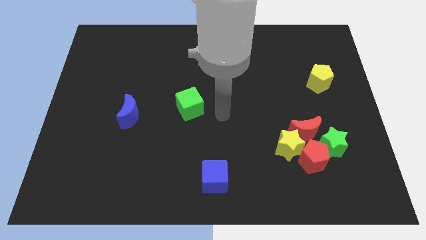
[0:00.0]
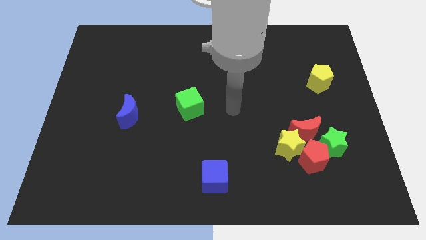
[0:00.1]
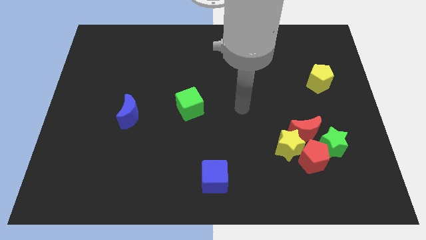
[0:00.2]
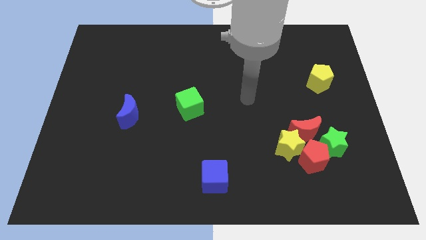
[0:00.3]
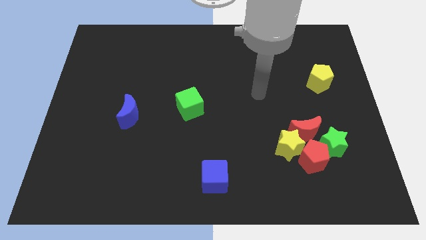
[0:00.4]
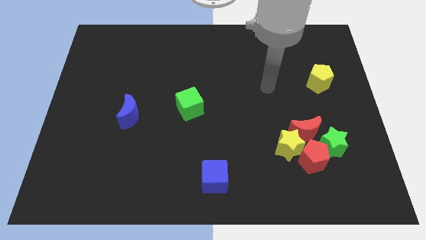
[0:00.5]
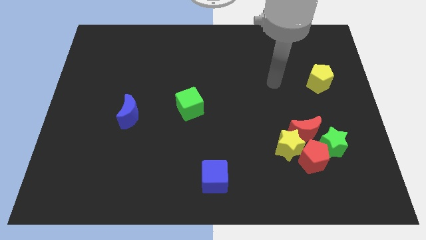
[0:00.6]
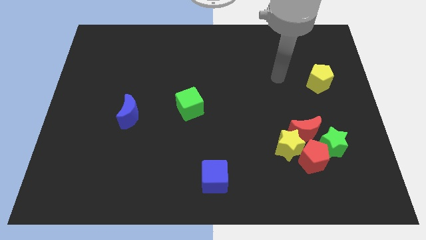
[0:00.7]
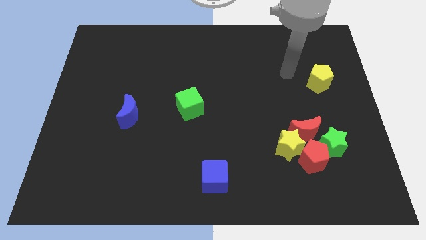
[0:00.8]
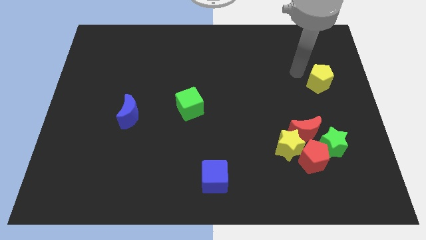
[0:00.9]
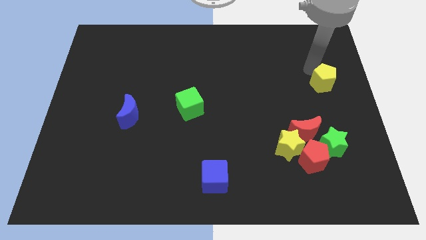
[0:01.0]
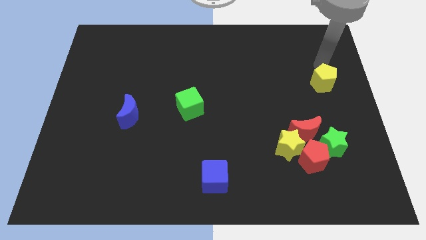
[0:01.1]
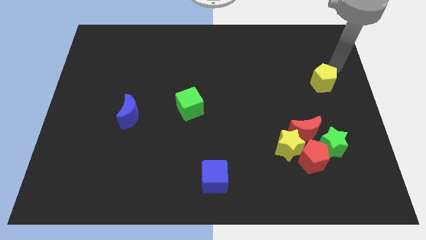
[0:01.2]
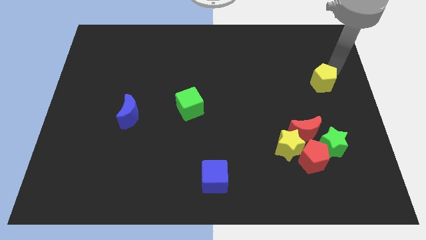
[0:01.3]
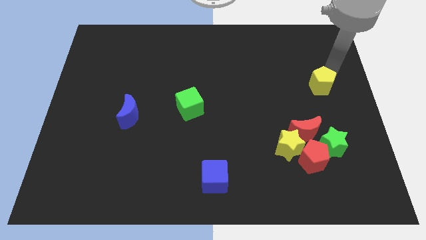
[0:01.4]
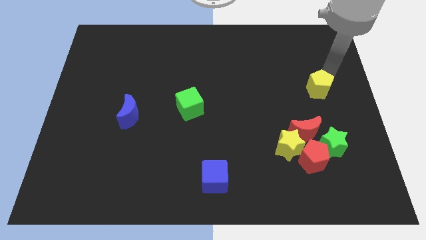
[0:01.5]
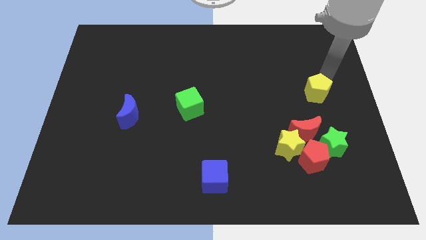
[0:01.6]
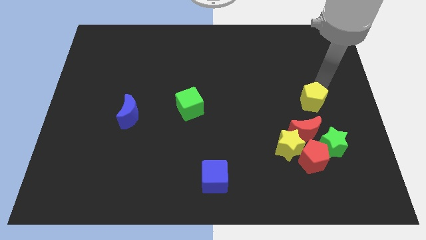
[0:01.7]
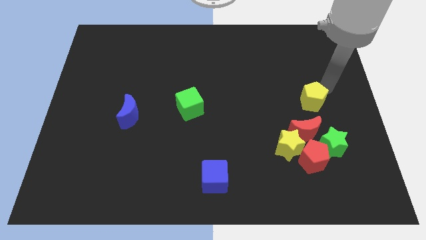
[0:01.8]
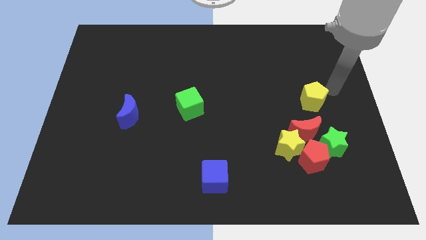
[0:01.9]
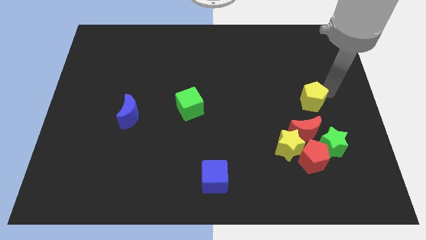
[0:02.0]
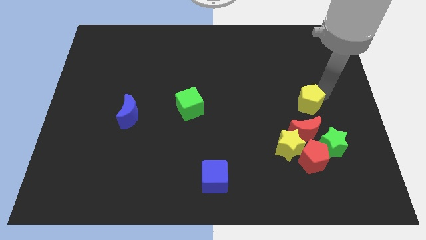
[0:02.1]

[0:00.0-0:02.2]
move the yellow pentagon a little bit downwards and to the left

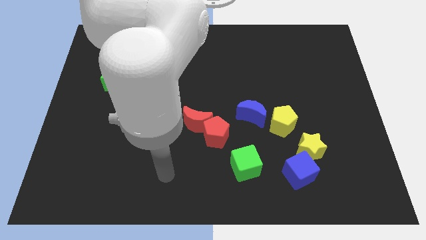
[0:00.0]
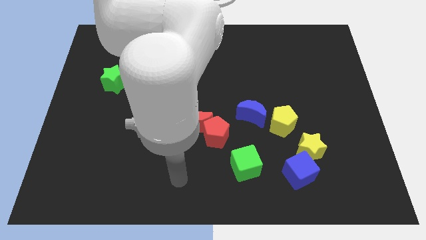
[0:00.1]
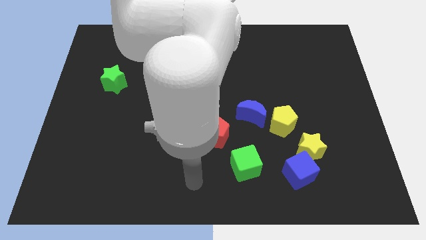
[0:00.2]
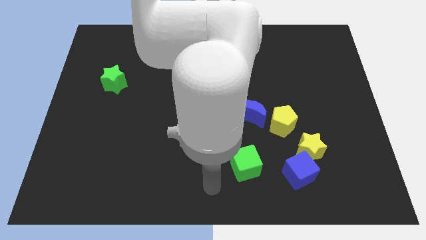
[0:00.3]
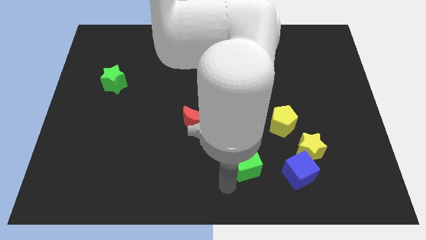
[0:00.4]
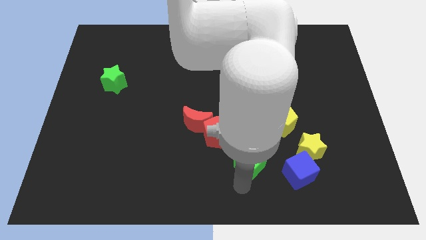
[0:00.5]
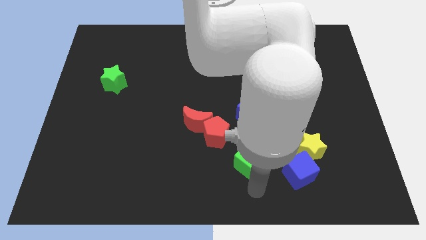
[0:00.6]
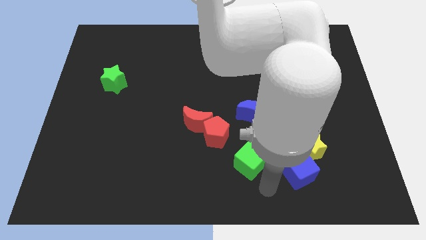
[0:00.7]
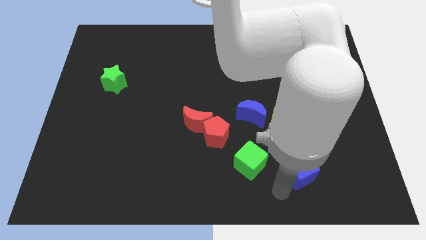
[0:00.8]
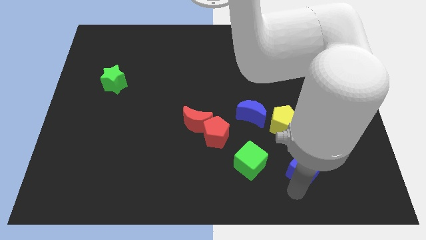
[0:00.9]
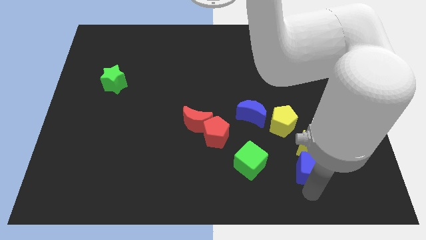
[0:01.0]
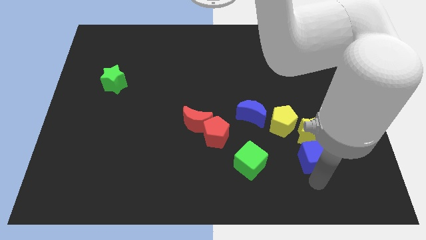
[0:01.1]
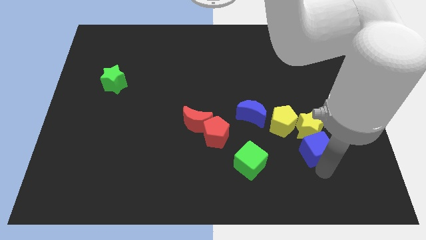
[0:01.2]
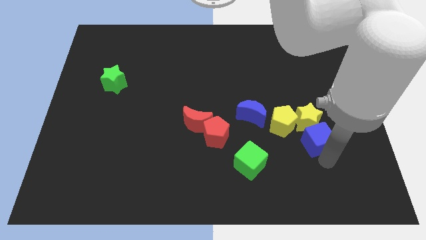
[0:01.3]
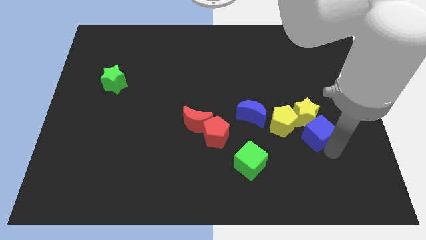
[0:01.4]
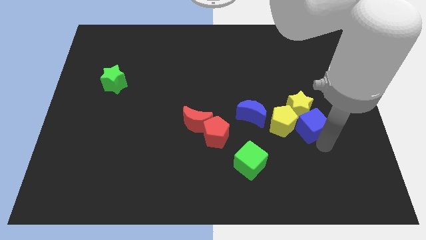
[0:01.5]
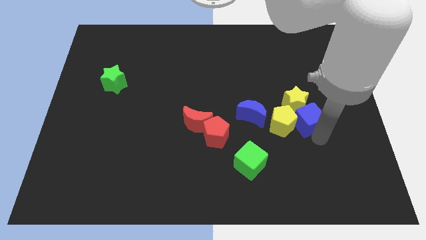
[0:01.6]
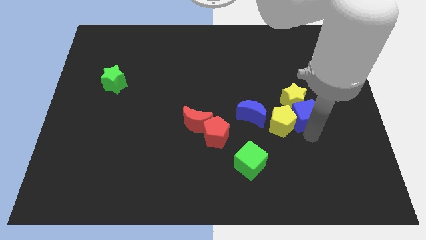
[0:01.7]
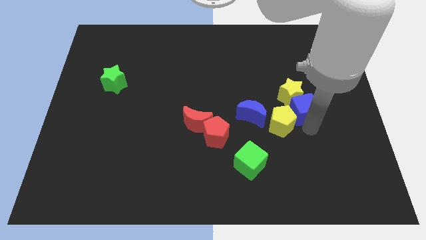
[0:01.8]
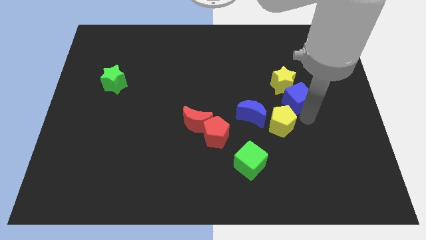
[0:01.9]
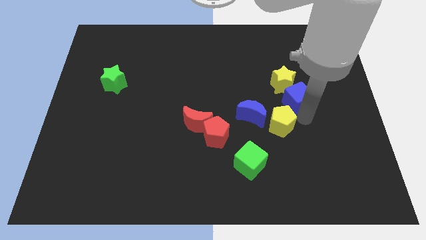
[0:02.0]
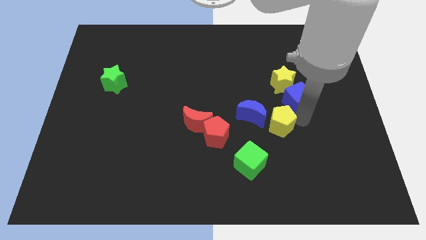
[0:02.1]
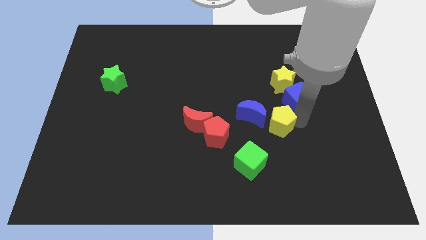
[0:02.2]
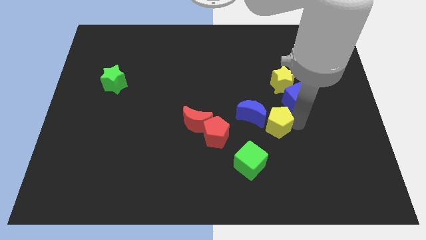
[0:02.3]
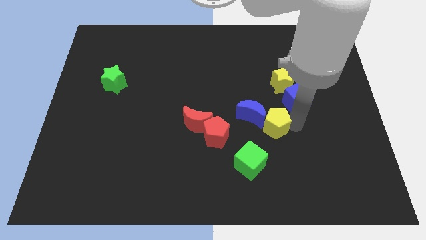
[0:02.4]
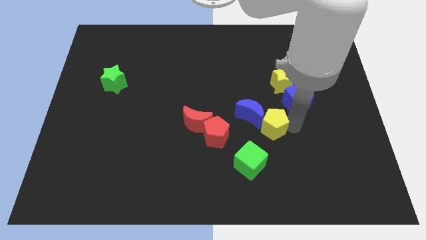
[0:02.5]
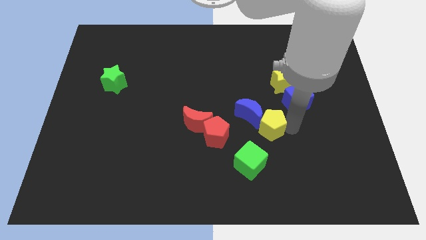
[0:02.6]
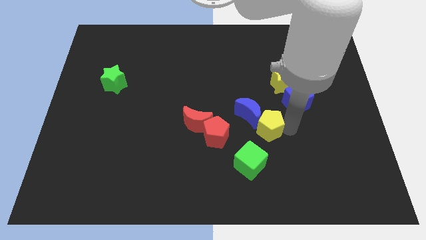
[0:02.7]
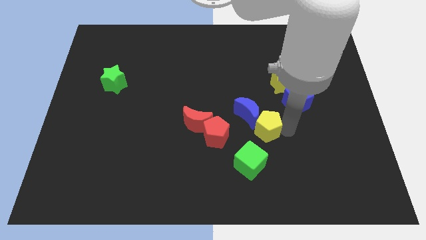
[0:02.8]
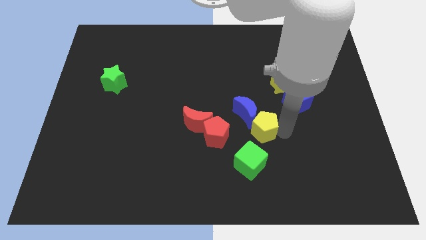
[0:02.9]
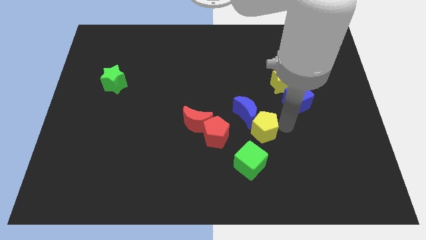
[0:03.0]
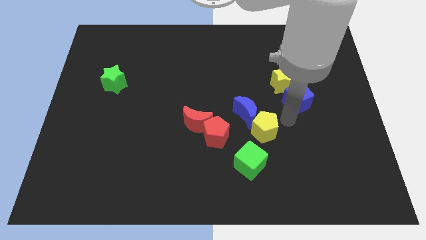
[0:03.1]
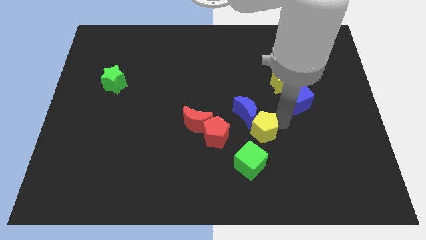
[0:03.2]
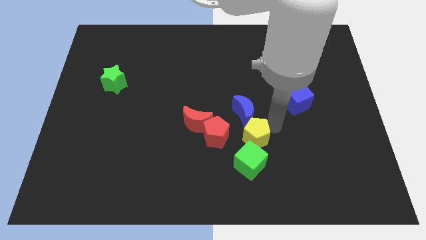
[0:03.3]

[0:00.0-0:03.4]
move the yellow pentagon somewhat down and to the left

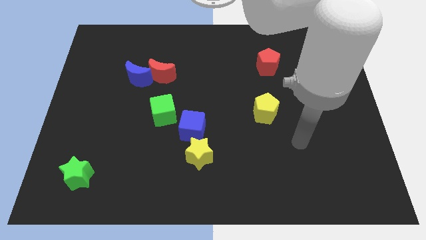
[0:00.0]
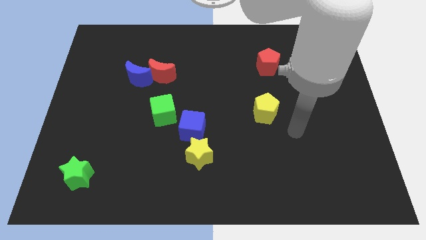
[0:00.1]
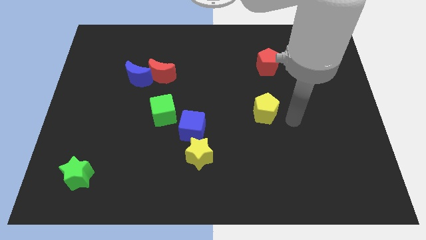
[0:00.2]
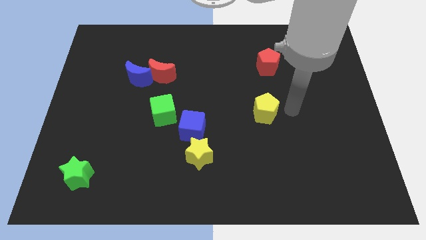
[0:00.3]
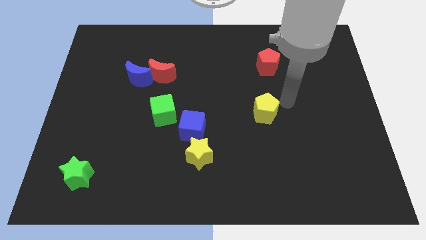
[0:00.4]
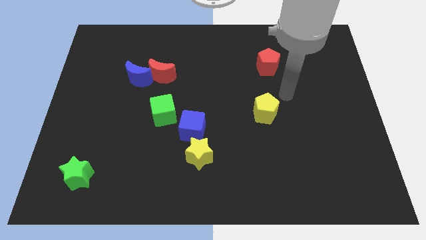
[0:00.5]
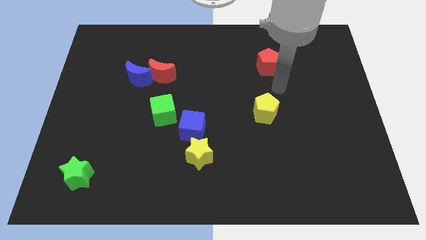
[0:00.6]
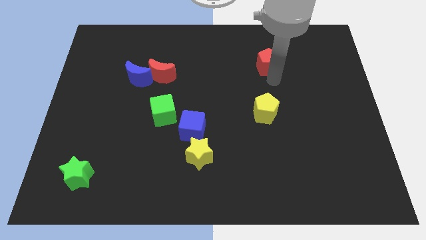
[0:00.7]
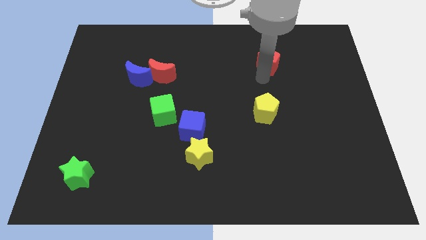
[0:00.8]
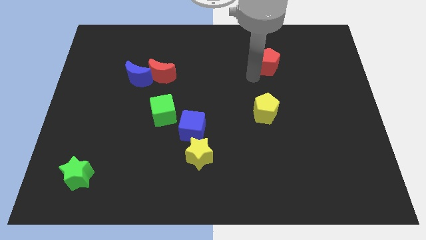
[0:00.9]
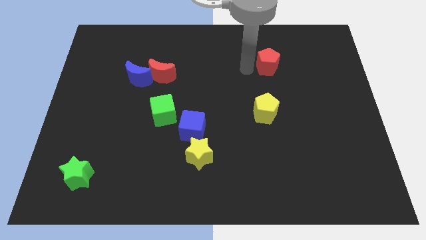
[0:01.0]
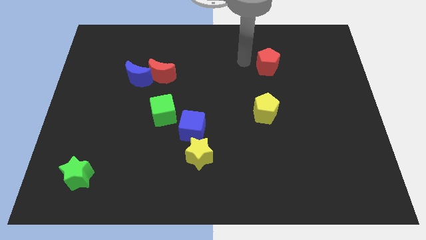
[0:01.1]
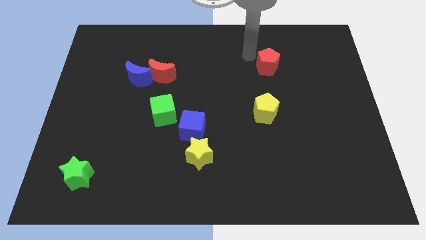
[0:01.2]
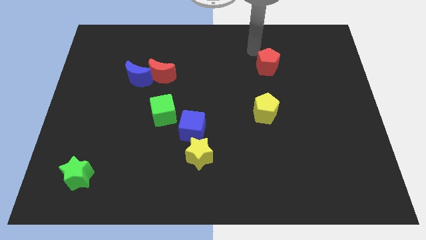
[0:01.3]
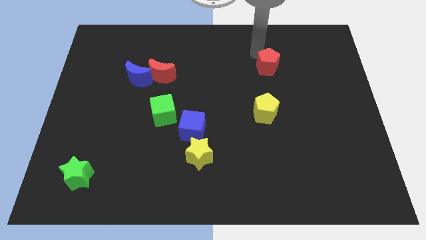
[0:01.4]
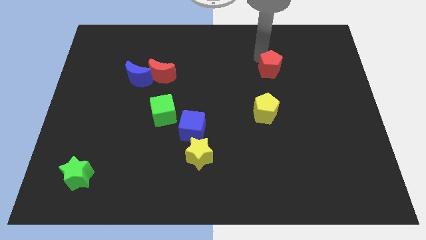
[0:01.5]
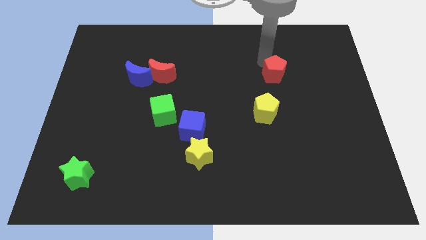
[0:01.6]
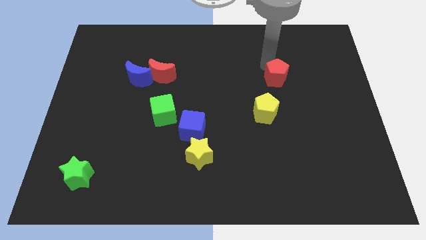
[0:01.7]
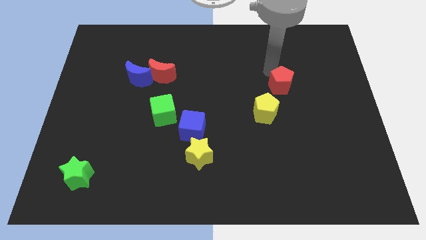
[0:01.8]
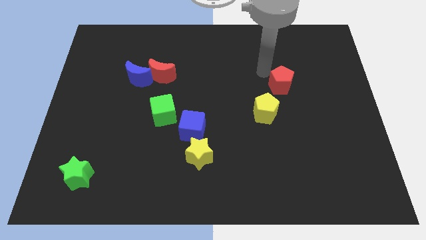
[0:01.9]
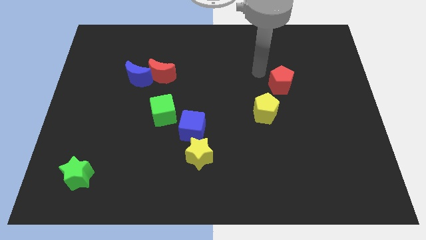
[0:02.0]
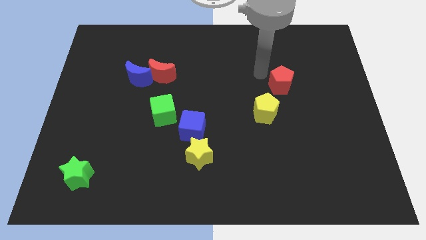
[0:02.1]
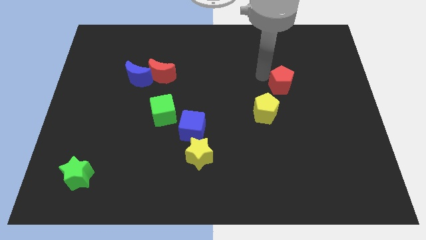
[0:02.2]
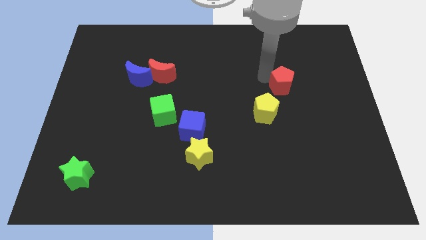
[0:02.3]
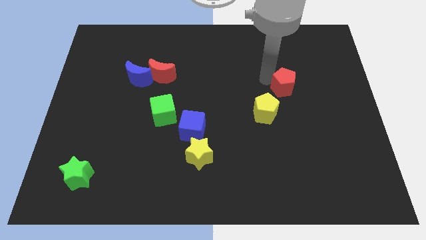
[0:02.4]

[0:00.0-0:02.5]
slightly slide the red pentagon down and right
